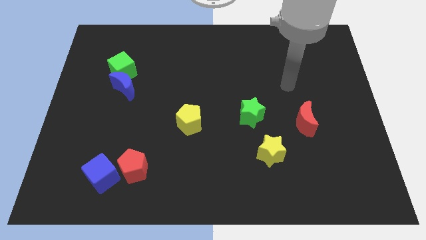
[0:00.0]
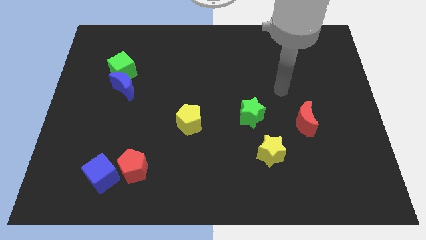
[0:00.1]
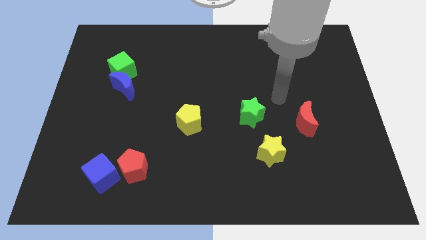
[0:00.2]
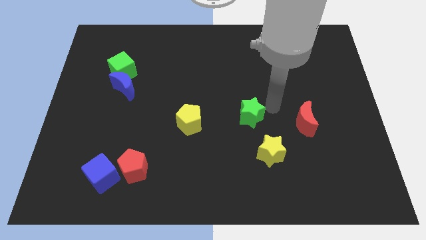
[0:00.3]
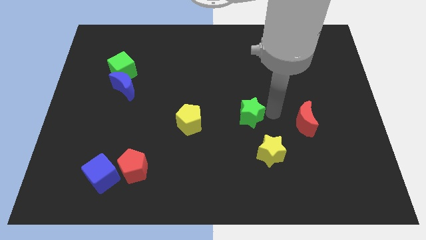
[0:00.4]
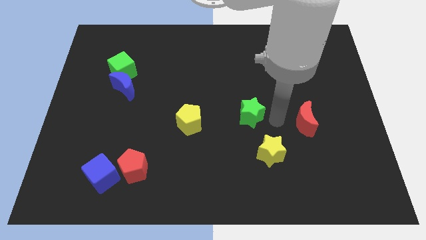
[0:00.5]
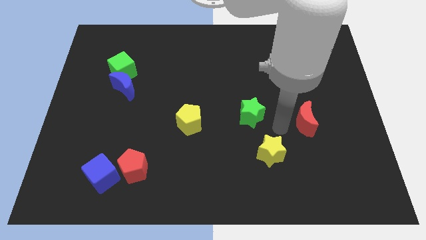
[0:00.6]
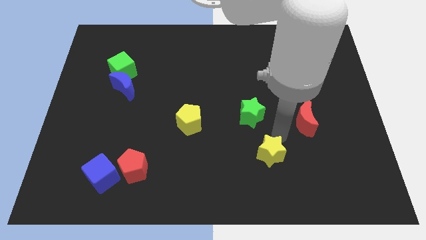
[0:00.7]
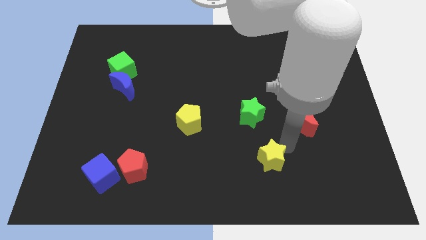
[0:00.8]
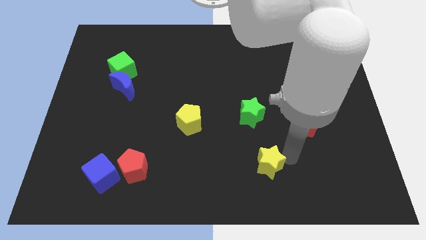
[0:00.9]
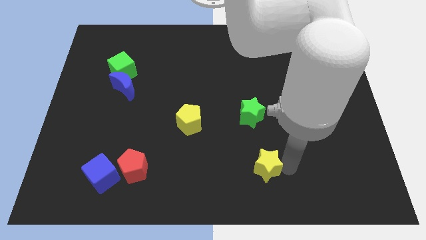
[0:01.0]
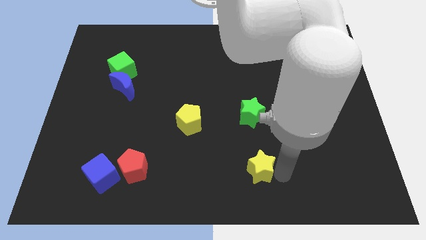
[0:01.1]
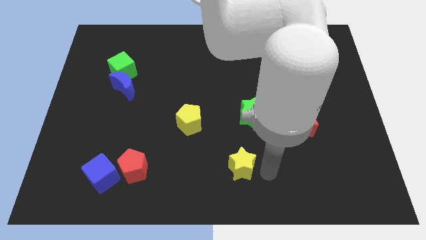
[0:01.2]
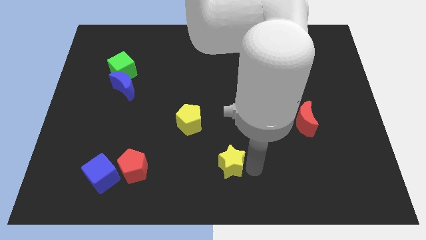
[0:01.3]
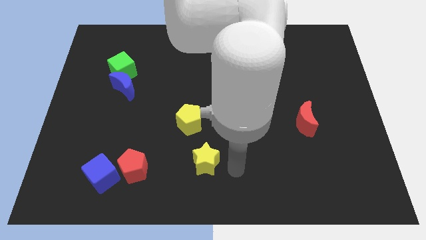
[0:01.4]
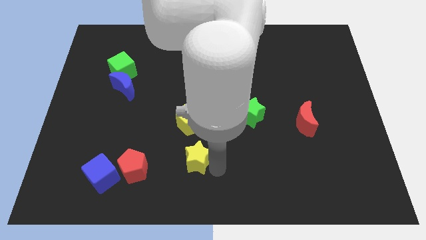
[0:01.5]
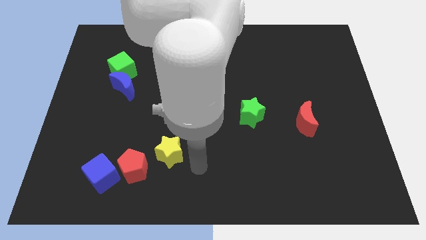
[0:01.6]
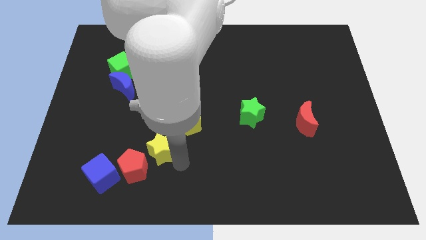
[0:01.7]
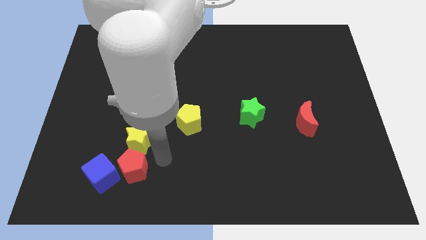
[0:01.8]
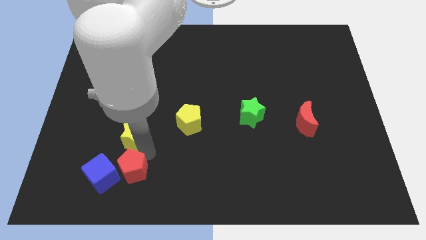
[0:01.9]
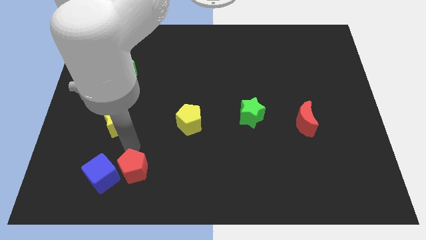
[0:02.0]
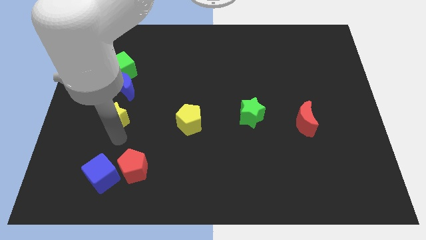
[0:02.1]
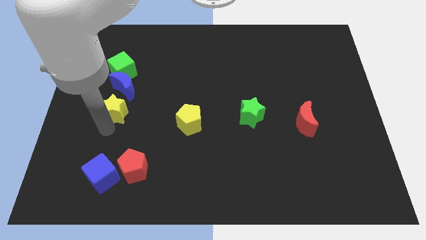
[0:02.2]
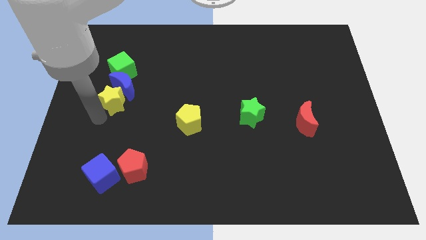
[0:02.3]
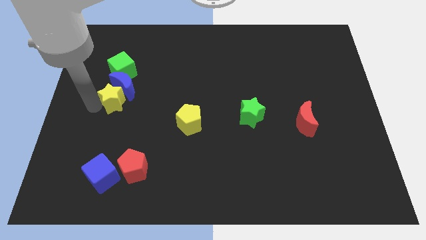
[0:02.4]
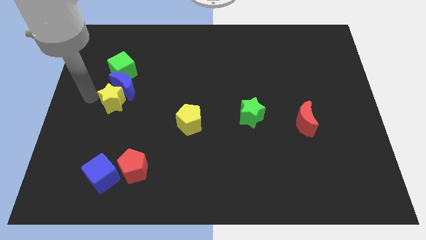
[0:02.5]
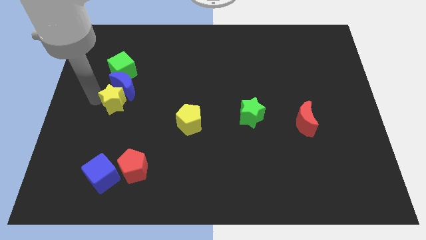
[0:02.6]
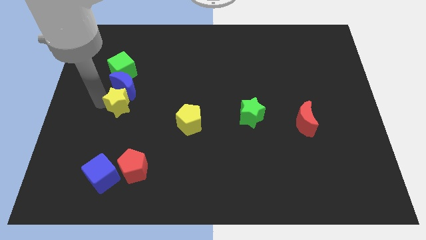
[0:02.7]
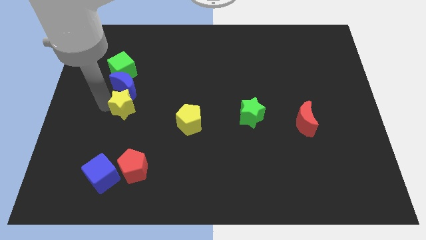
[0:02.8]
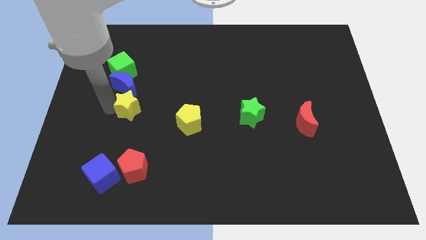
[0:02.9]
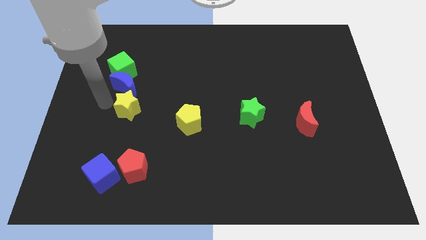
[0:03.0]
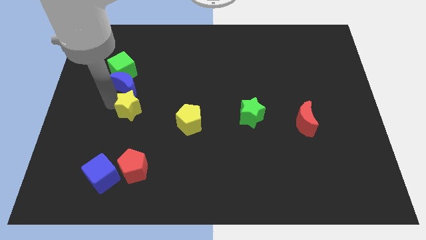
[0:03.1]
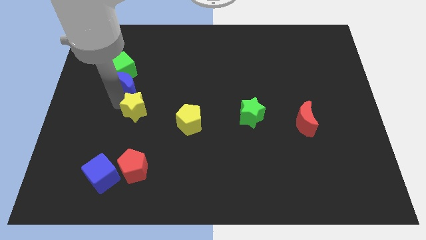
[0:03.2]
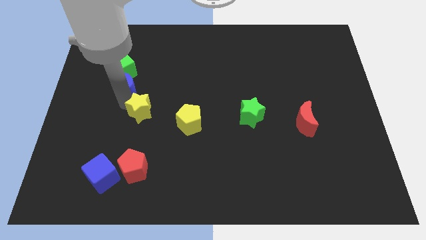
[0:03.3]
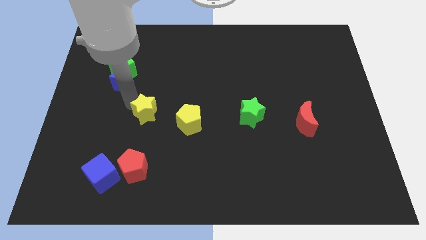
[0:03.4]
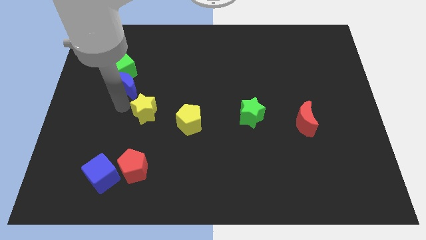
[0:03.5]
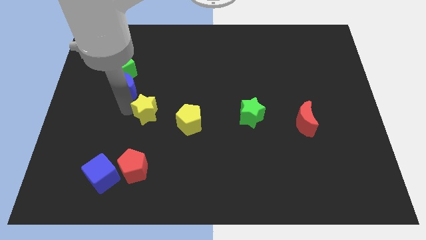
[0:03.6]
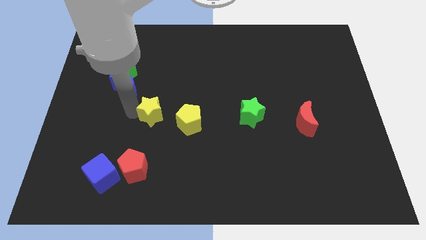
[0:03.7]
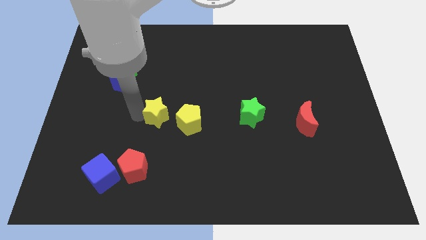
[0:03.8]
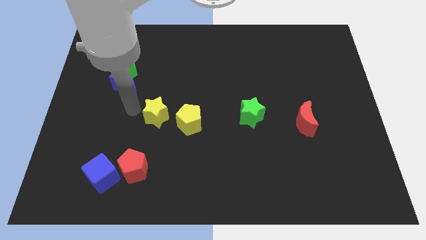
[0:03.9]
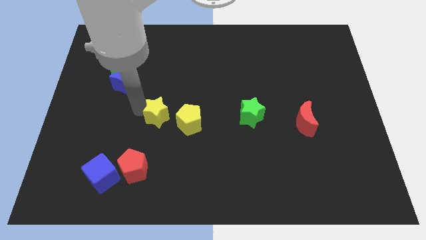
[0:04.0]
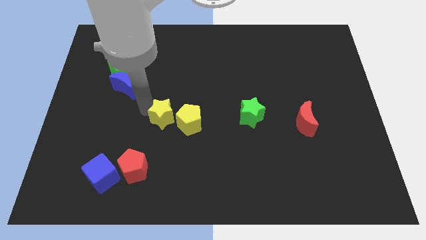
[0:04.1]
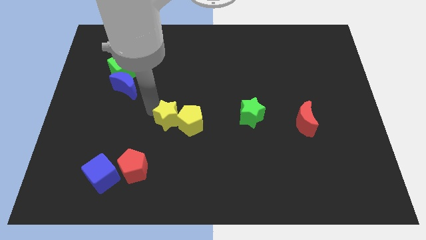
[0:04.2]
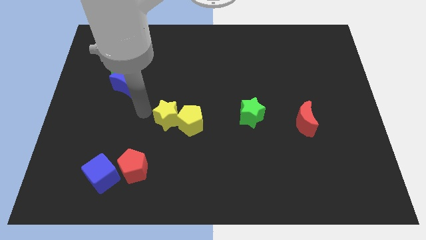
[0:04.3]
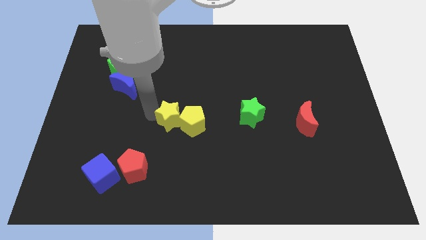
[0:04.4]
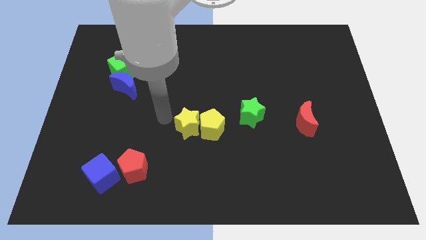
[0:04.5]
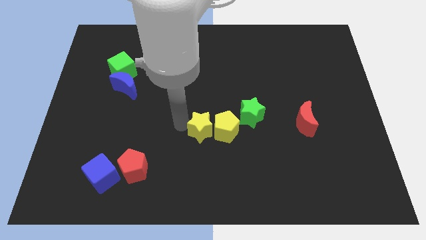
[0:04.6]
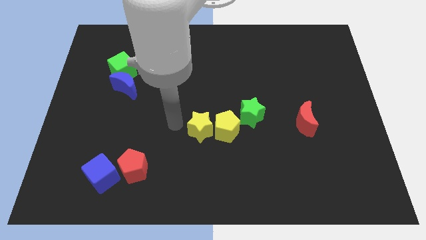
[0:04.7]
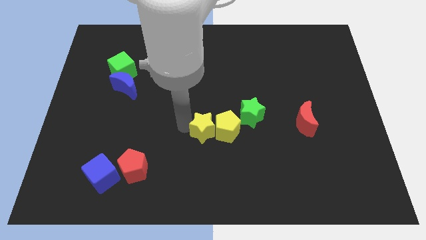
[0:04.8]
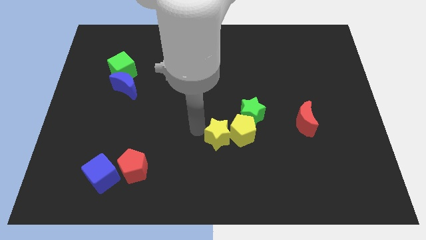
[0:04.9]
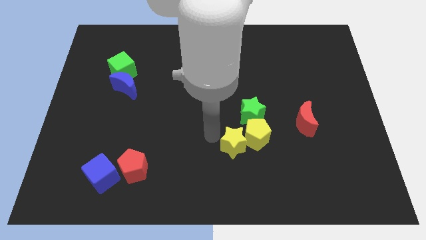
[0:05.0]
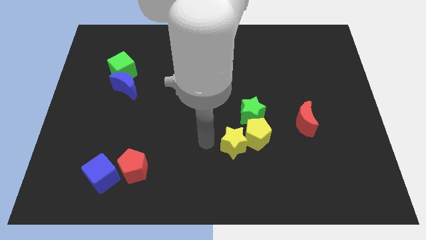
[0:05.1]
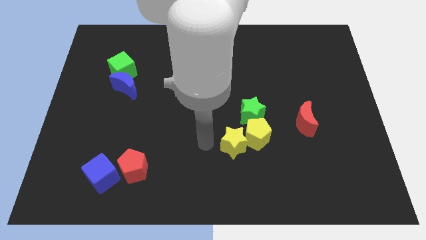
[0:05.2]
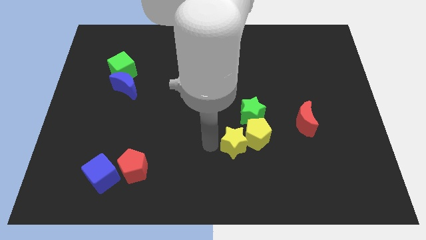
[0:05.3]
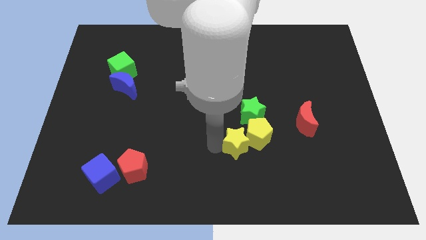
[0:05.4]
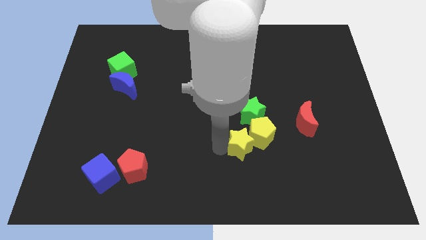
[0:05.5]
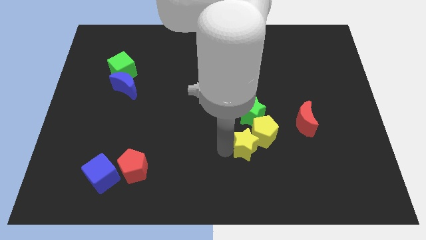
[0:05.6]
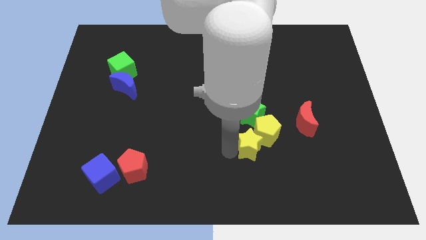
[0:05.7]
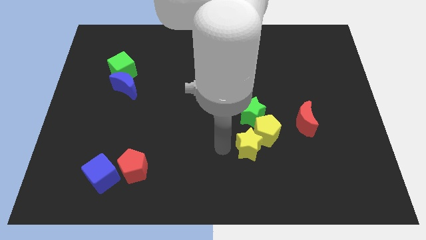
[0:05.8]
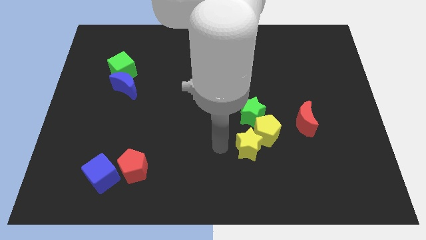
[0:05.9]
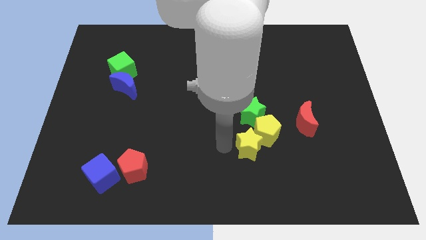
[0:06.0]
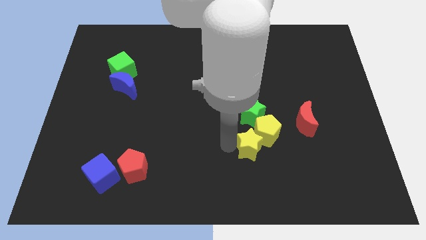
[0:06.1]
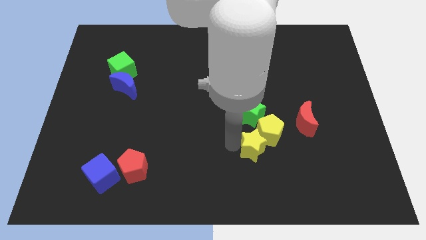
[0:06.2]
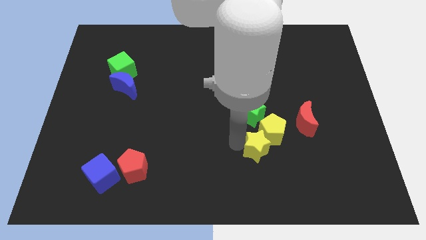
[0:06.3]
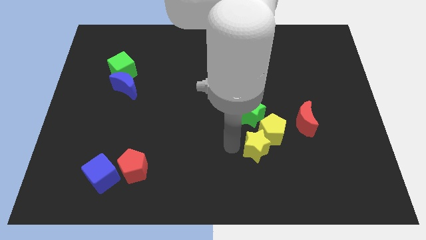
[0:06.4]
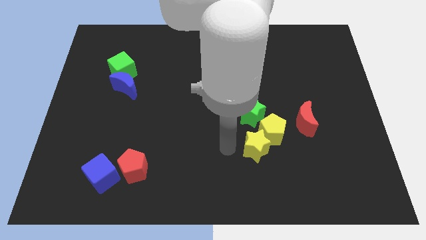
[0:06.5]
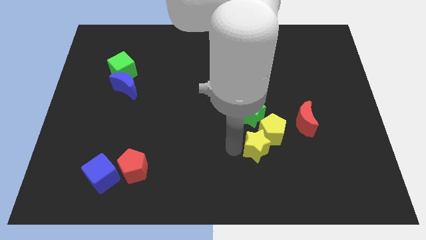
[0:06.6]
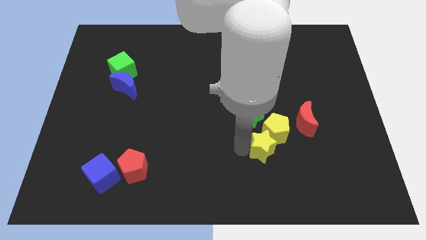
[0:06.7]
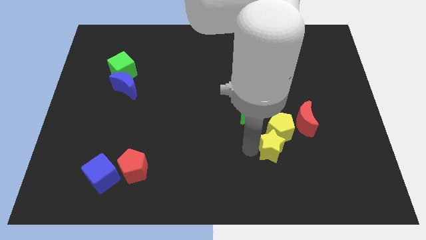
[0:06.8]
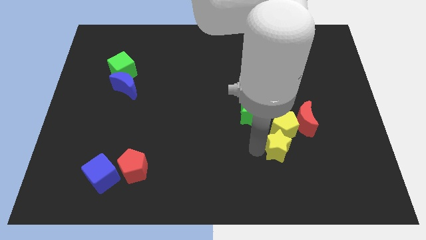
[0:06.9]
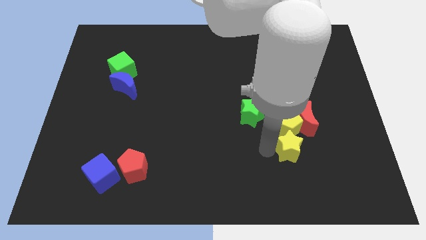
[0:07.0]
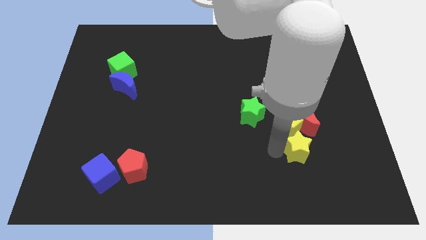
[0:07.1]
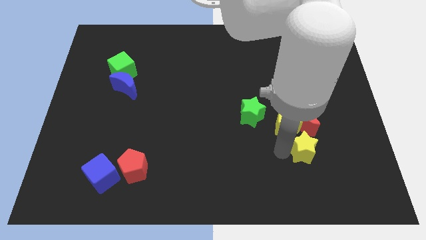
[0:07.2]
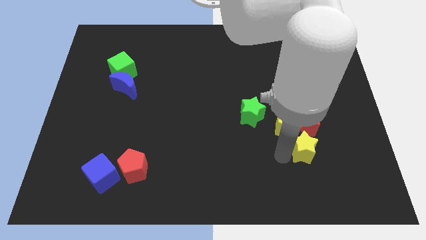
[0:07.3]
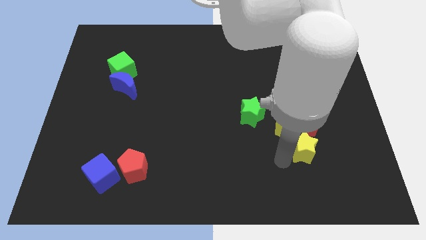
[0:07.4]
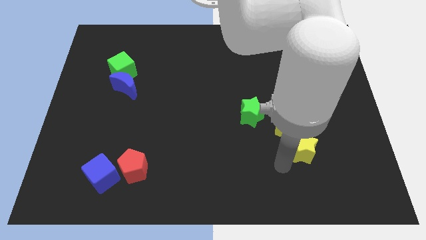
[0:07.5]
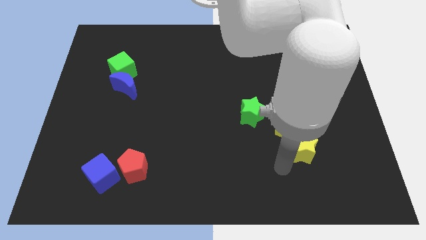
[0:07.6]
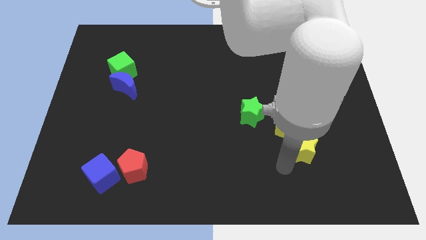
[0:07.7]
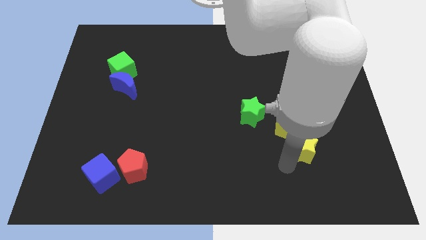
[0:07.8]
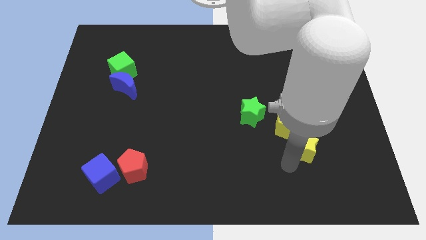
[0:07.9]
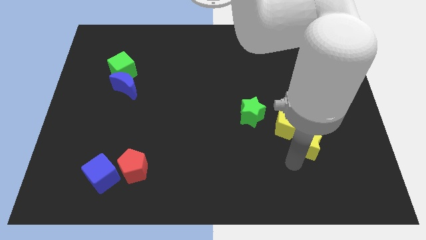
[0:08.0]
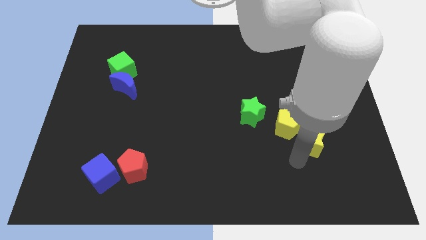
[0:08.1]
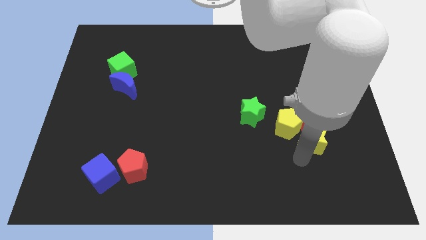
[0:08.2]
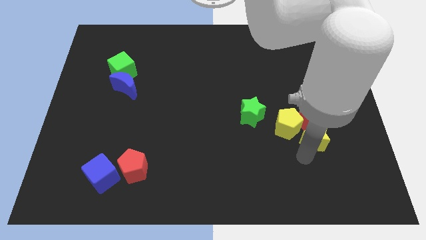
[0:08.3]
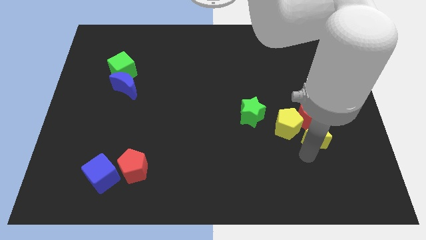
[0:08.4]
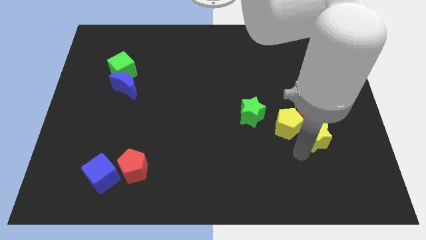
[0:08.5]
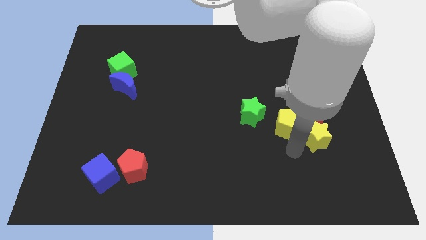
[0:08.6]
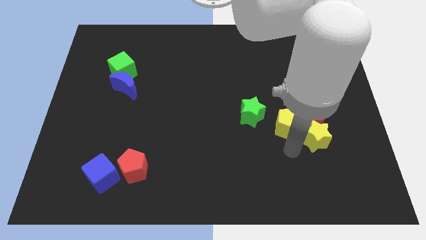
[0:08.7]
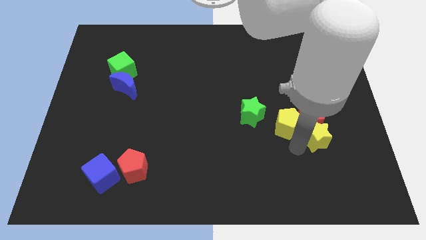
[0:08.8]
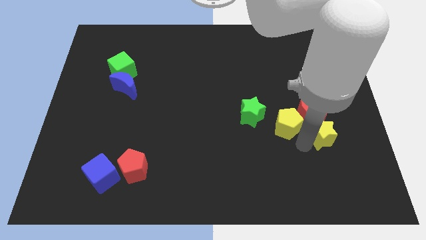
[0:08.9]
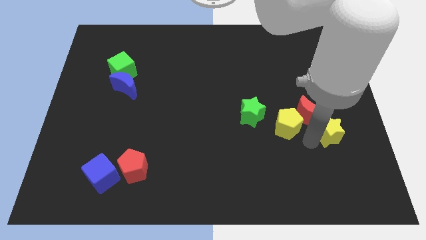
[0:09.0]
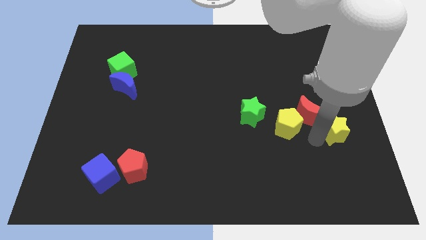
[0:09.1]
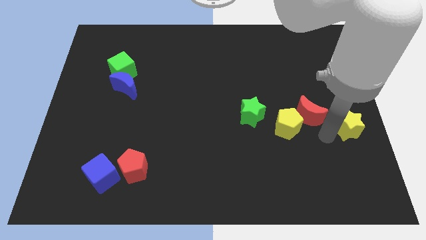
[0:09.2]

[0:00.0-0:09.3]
slide the yellow star to the right side
